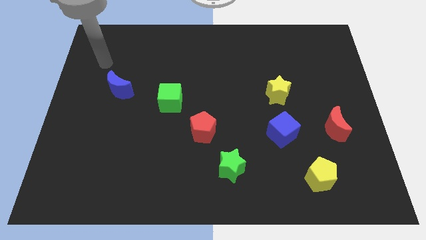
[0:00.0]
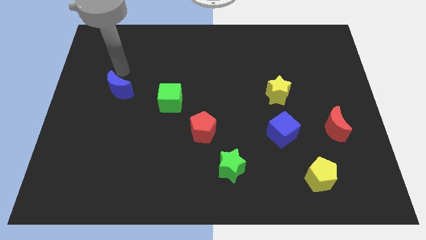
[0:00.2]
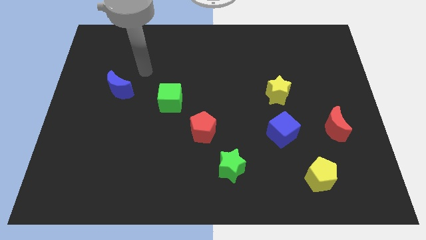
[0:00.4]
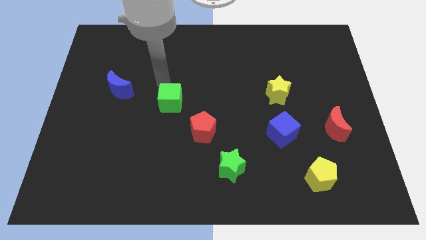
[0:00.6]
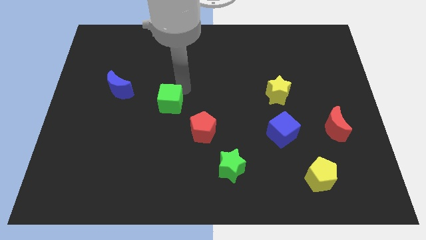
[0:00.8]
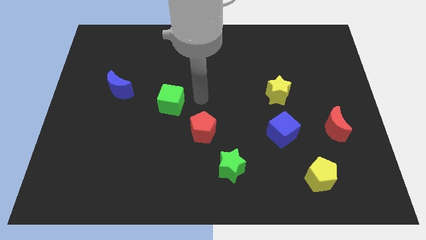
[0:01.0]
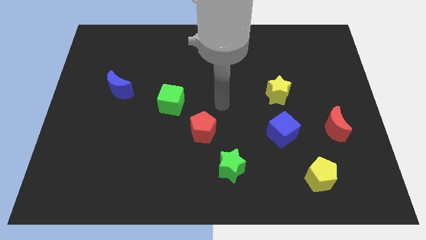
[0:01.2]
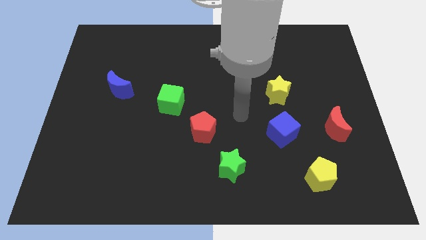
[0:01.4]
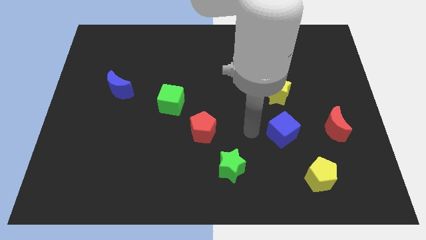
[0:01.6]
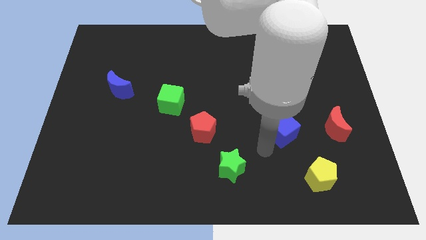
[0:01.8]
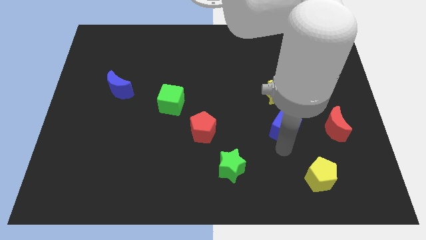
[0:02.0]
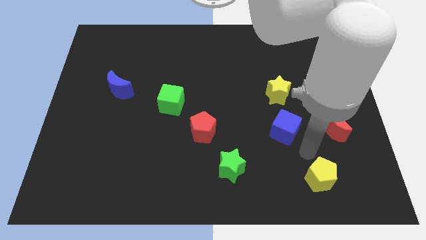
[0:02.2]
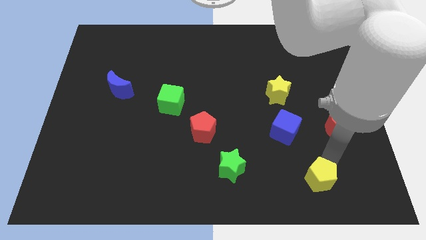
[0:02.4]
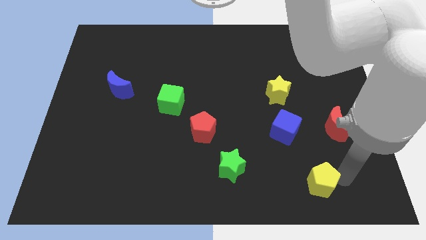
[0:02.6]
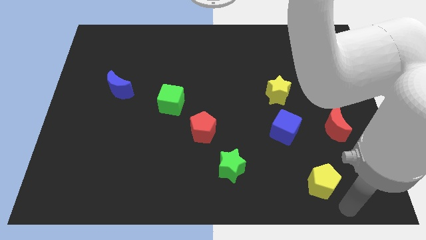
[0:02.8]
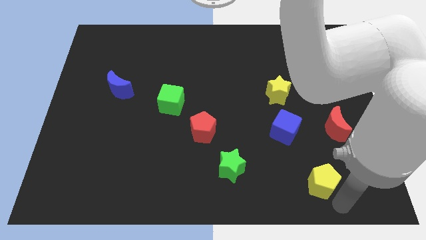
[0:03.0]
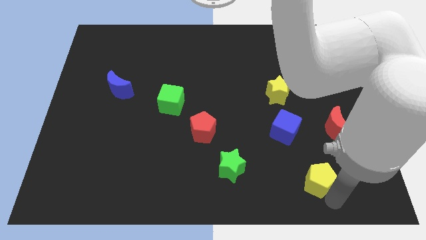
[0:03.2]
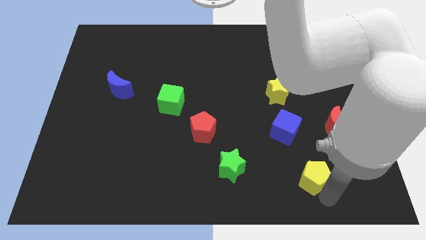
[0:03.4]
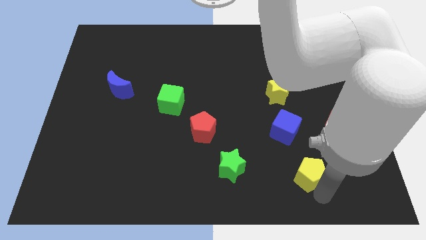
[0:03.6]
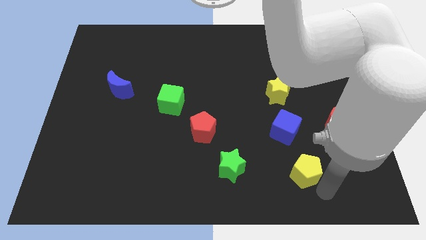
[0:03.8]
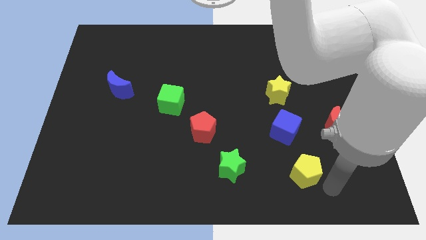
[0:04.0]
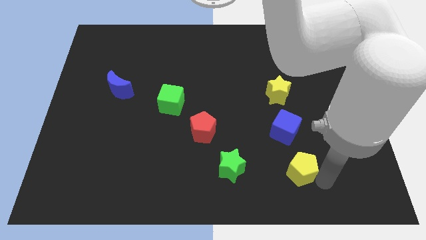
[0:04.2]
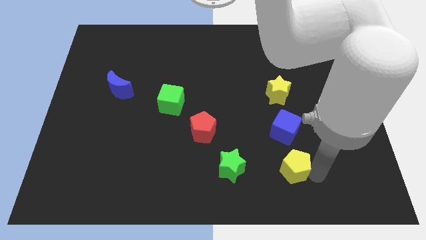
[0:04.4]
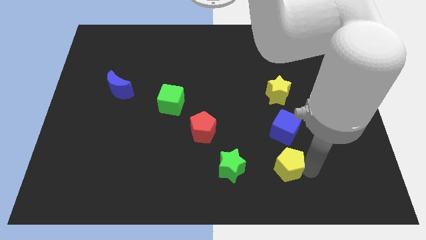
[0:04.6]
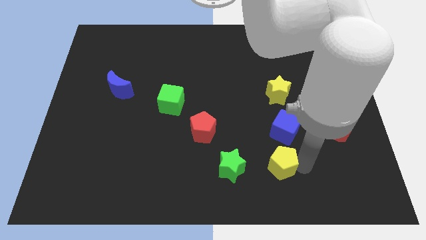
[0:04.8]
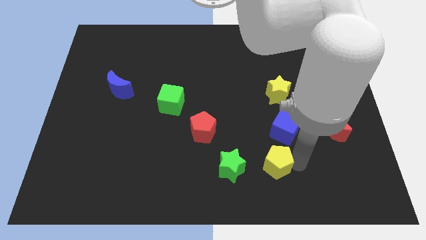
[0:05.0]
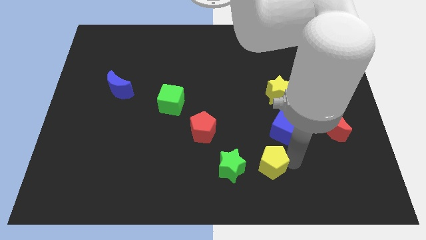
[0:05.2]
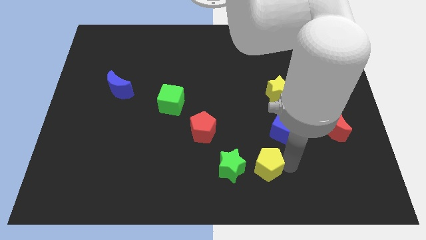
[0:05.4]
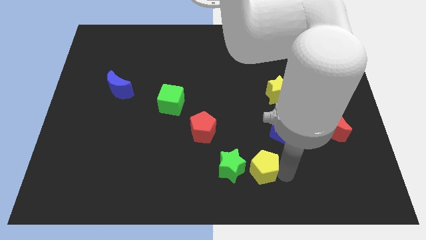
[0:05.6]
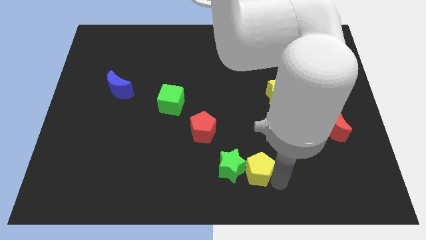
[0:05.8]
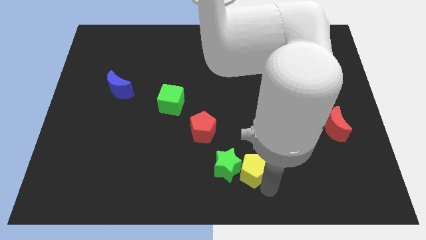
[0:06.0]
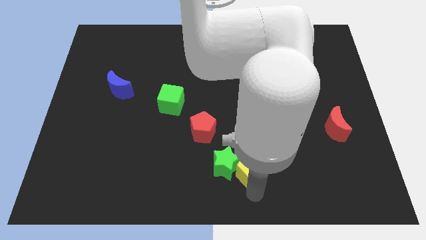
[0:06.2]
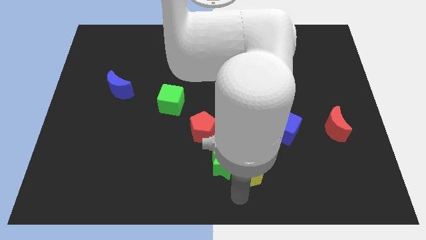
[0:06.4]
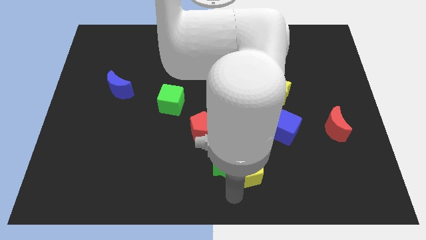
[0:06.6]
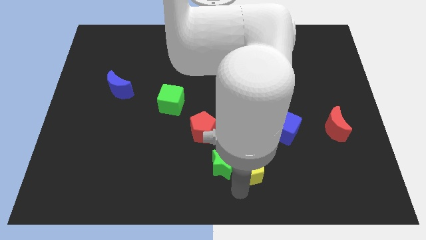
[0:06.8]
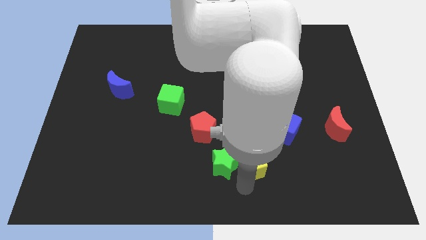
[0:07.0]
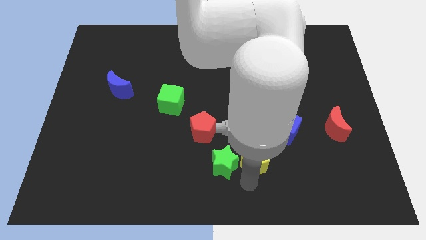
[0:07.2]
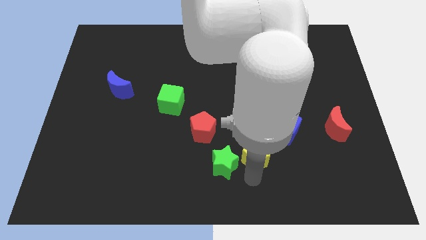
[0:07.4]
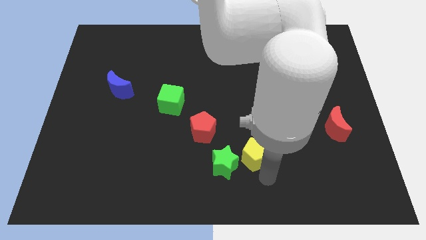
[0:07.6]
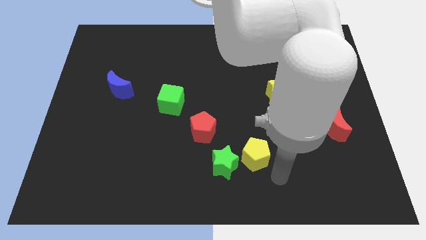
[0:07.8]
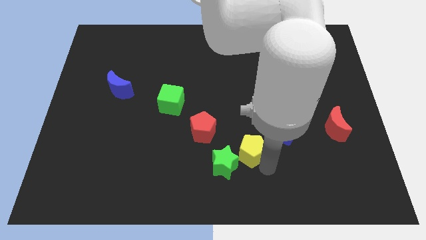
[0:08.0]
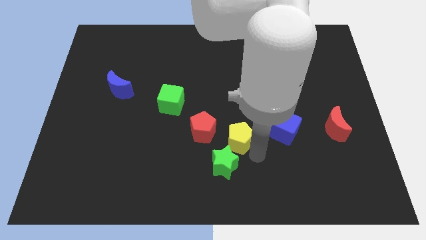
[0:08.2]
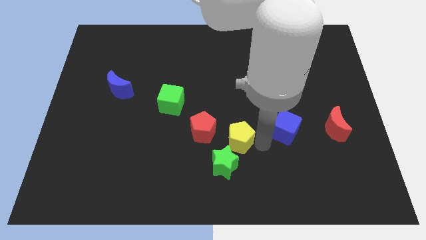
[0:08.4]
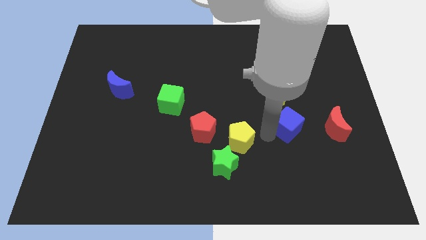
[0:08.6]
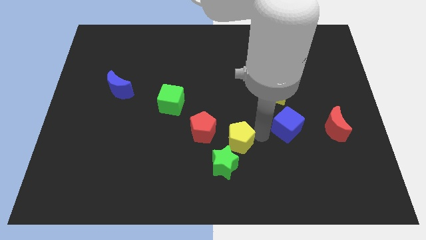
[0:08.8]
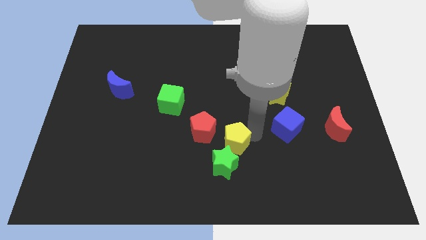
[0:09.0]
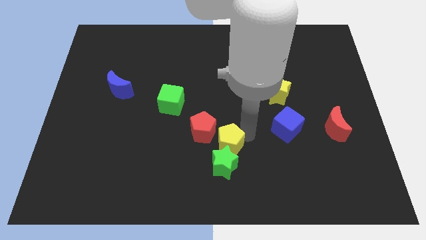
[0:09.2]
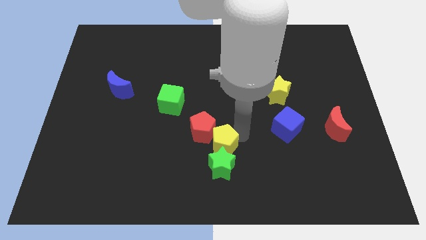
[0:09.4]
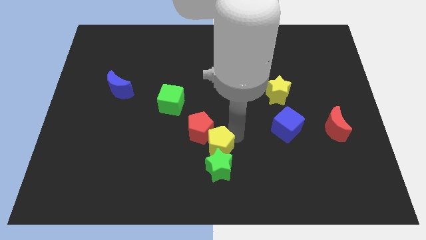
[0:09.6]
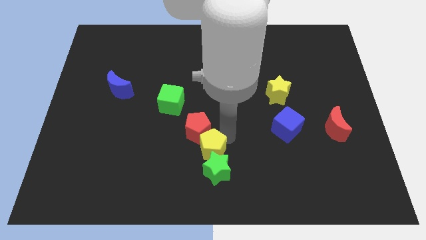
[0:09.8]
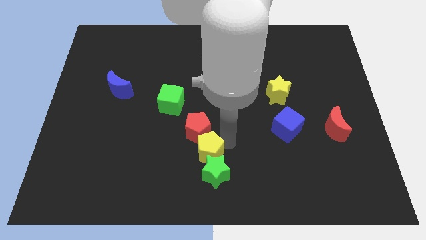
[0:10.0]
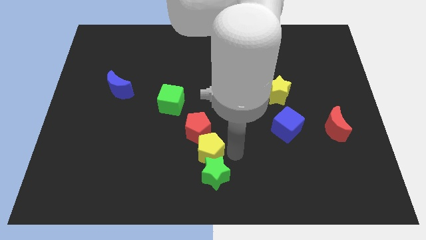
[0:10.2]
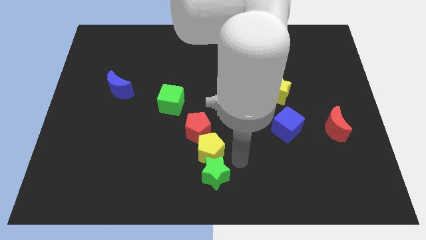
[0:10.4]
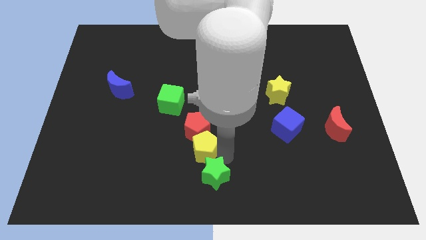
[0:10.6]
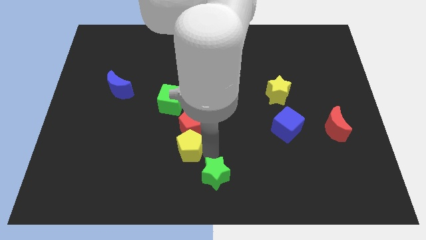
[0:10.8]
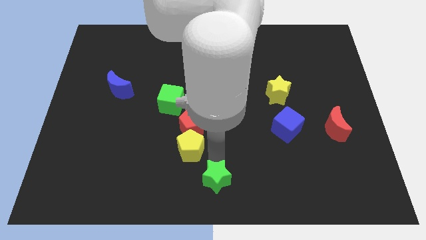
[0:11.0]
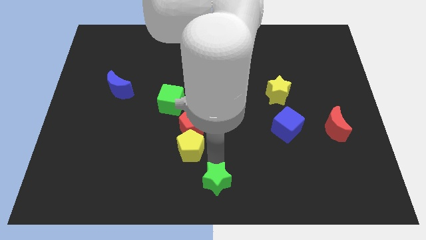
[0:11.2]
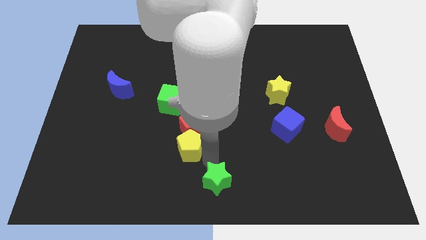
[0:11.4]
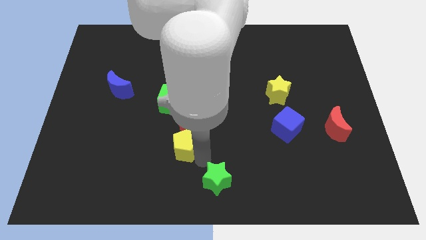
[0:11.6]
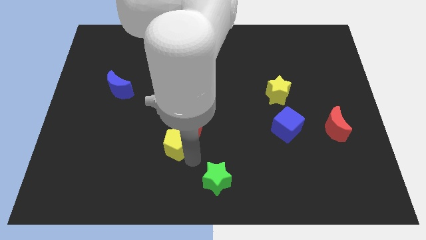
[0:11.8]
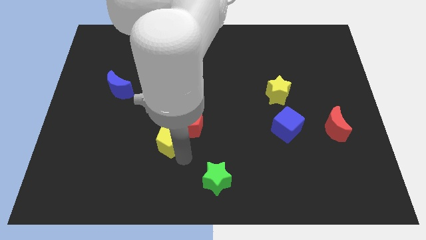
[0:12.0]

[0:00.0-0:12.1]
put the yellow pentagon to the left of the red pentagon

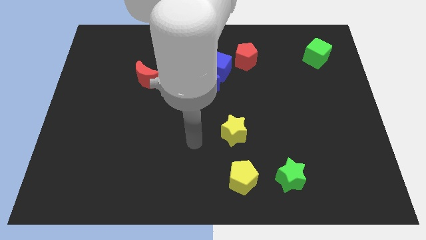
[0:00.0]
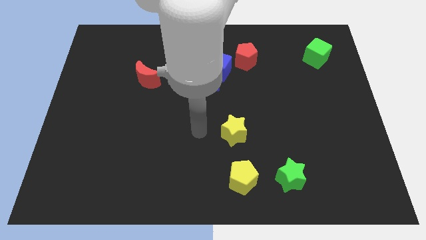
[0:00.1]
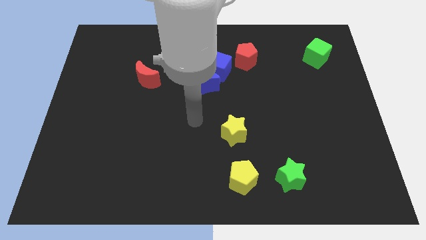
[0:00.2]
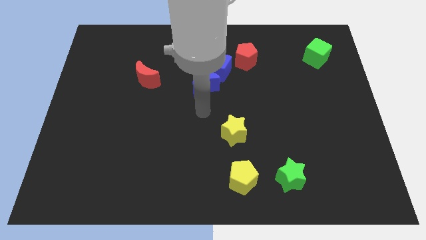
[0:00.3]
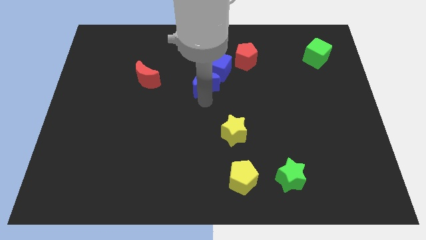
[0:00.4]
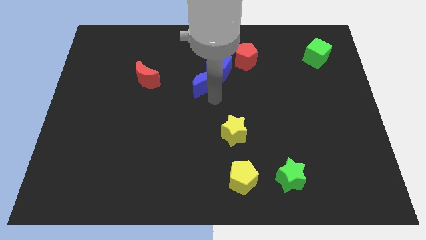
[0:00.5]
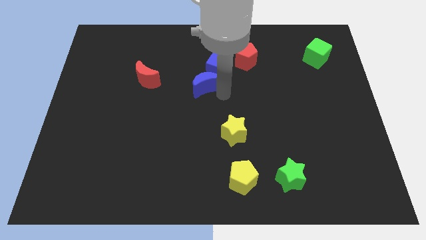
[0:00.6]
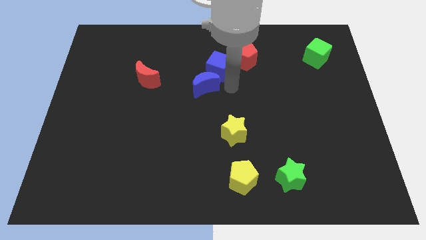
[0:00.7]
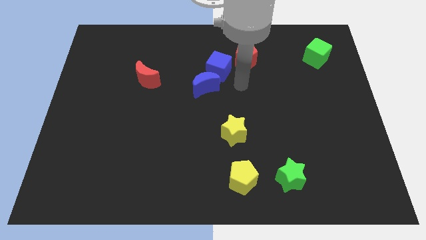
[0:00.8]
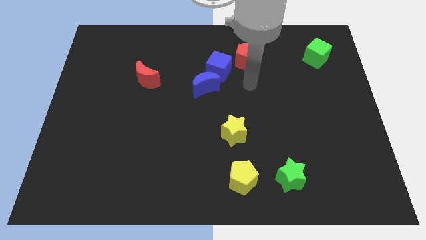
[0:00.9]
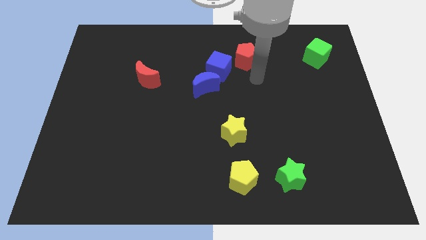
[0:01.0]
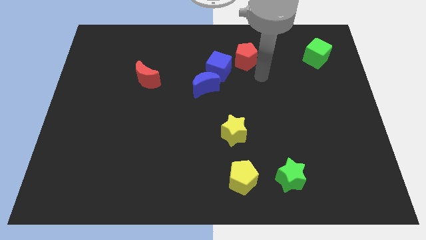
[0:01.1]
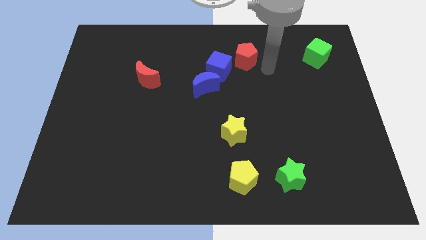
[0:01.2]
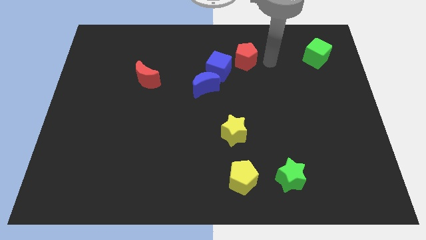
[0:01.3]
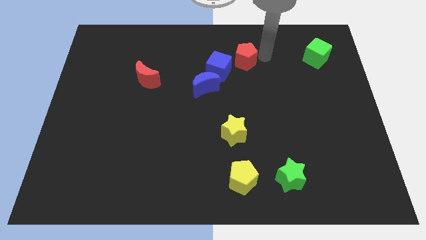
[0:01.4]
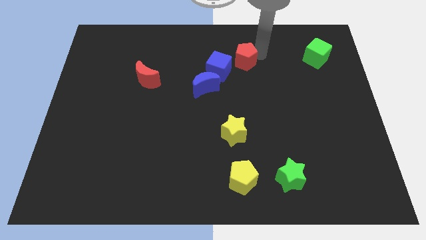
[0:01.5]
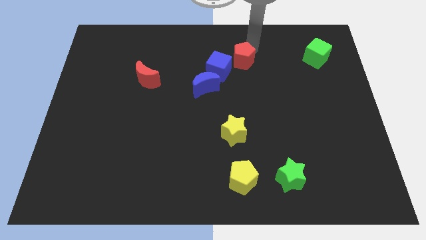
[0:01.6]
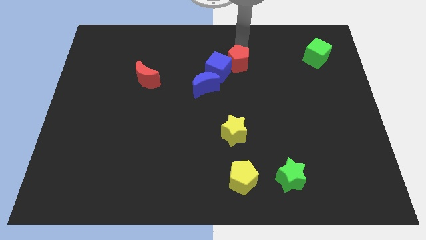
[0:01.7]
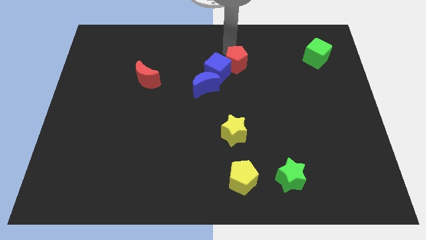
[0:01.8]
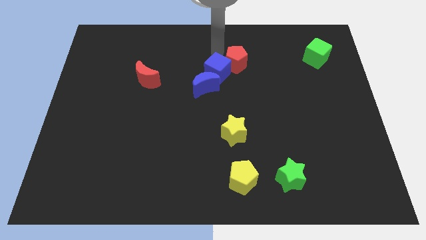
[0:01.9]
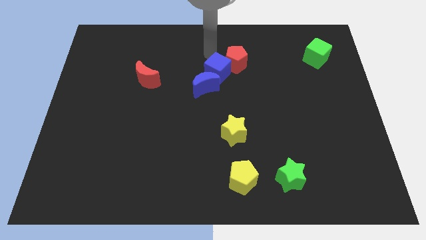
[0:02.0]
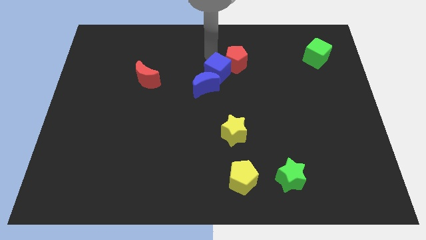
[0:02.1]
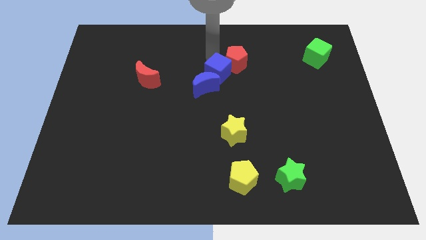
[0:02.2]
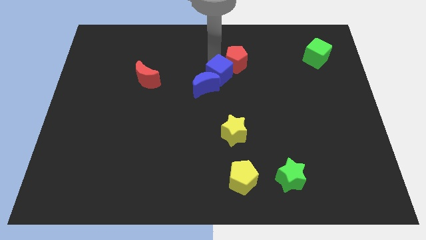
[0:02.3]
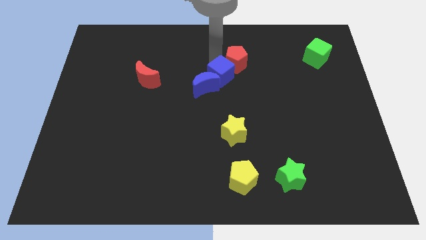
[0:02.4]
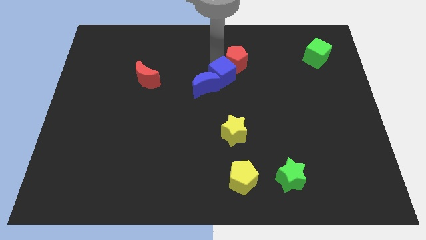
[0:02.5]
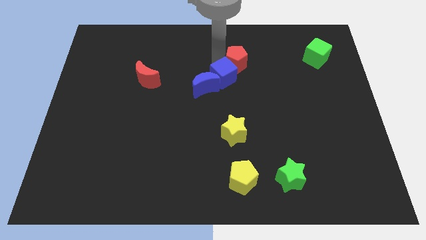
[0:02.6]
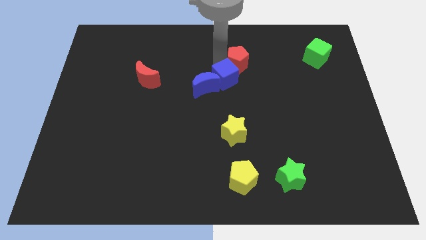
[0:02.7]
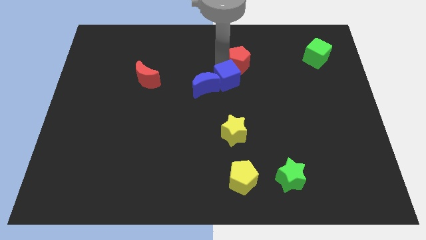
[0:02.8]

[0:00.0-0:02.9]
slide the blue cube to the top of the yellow star
